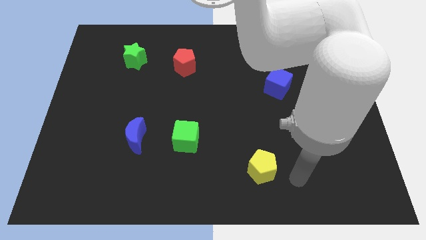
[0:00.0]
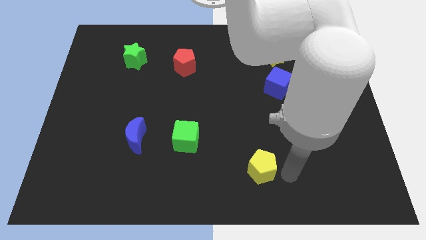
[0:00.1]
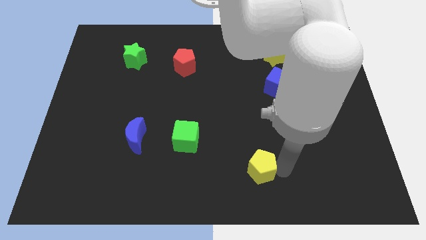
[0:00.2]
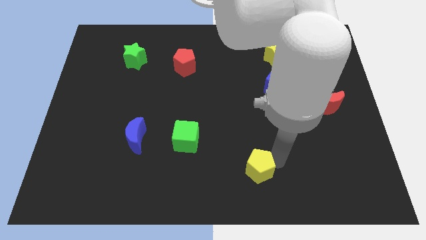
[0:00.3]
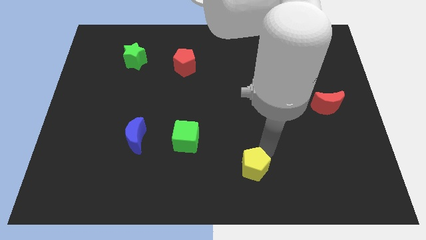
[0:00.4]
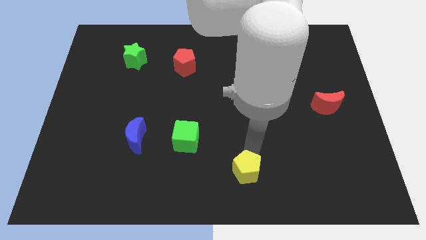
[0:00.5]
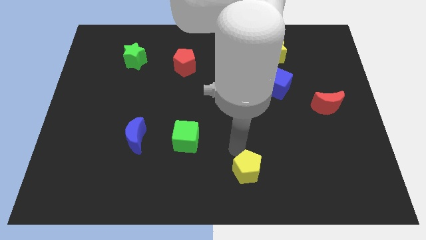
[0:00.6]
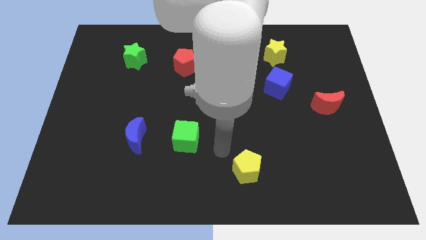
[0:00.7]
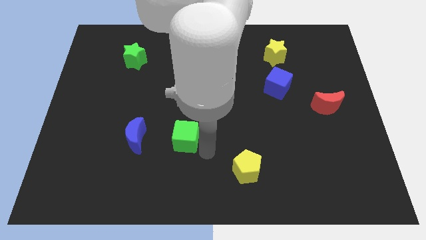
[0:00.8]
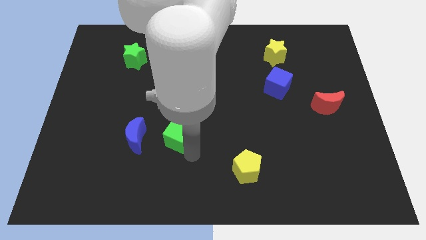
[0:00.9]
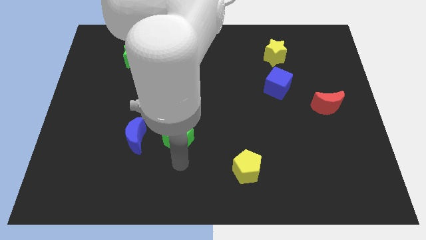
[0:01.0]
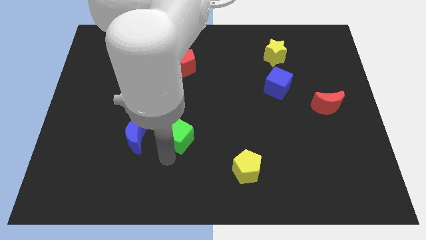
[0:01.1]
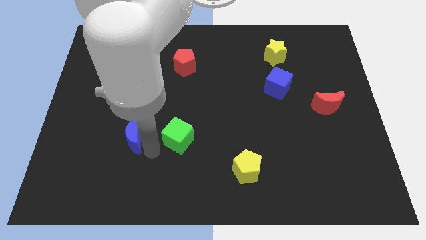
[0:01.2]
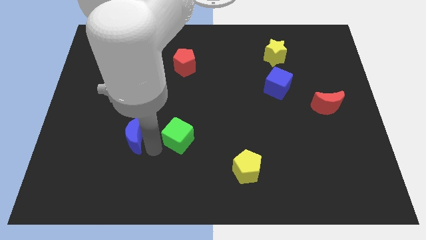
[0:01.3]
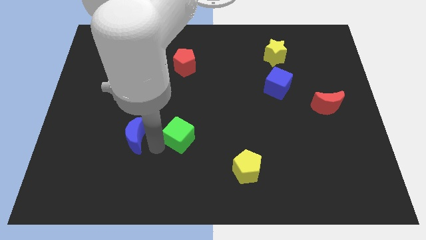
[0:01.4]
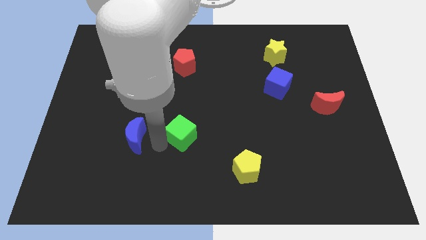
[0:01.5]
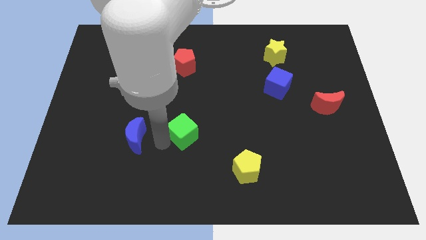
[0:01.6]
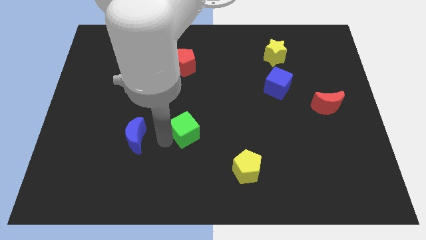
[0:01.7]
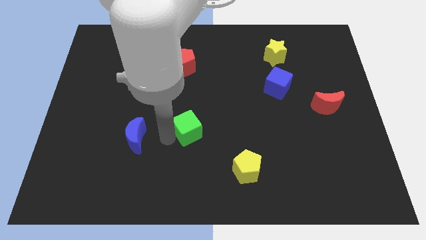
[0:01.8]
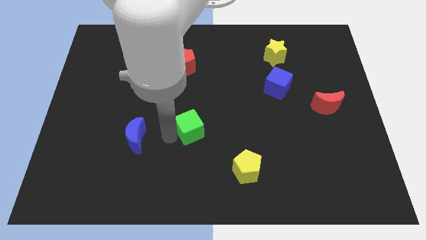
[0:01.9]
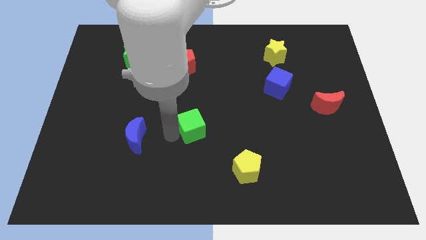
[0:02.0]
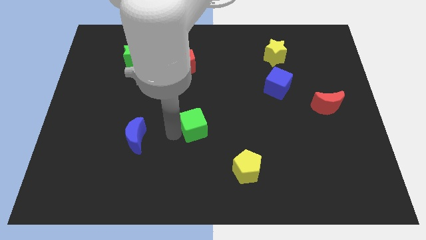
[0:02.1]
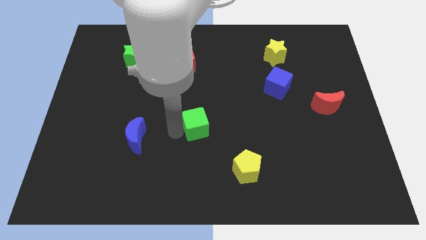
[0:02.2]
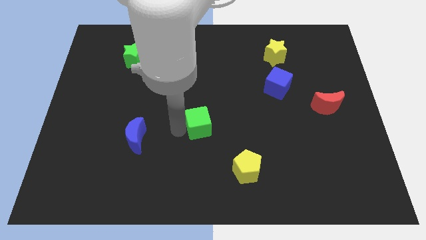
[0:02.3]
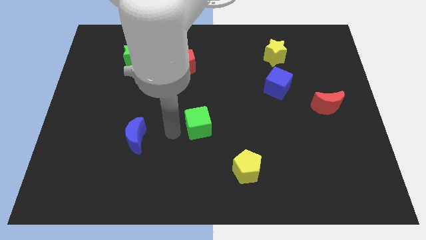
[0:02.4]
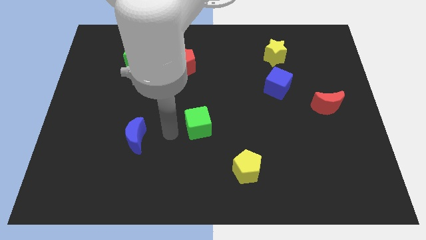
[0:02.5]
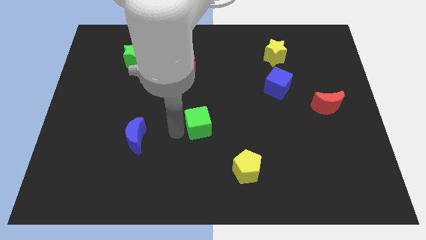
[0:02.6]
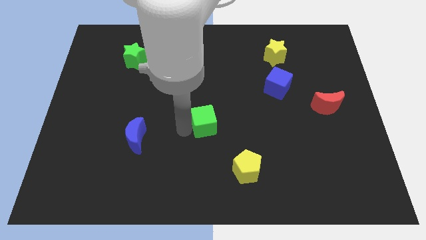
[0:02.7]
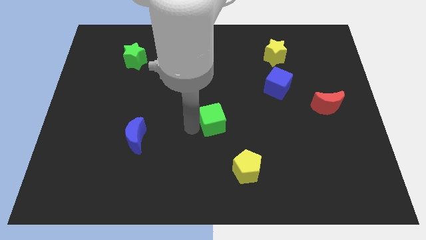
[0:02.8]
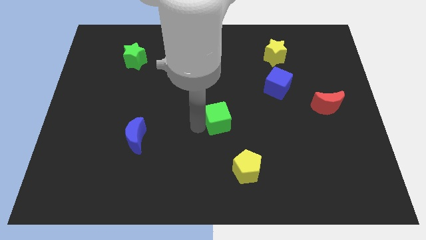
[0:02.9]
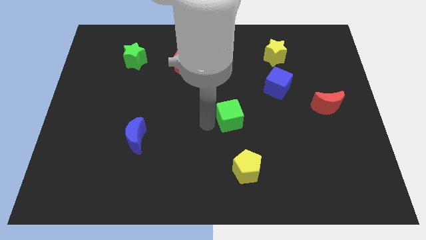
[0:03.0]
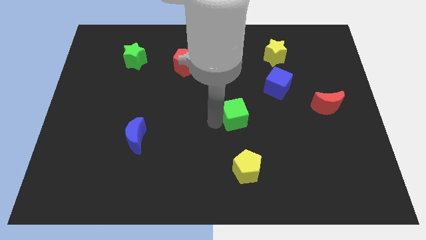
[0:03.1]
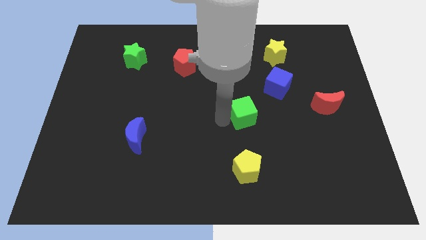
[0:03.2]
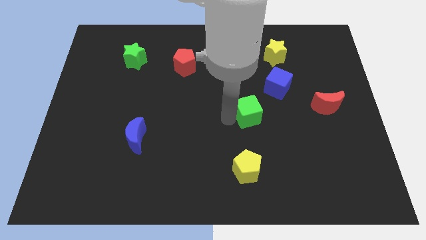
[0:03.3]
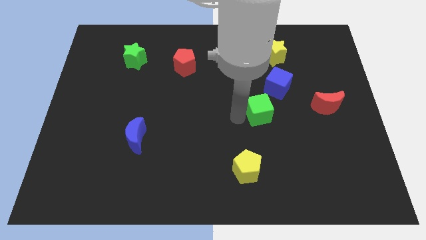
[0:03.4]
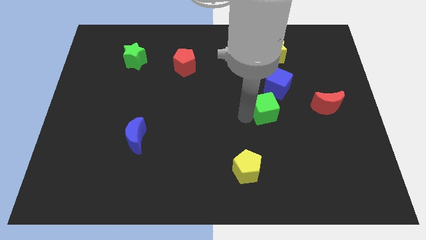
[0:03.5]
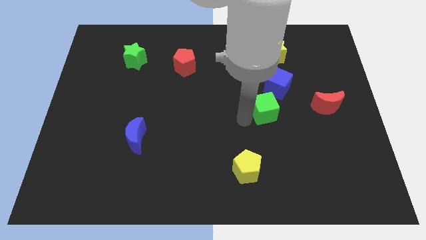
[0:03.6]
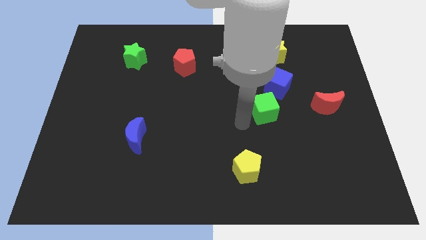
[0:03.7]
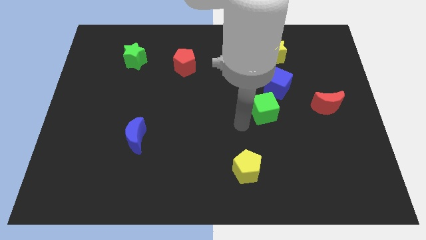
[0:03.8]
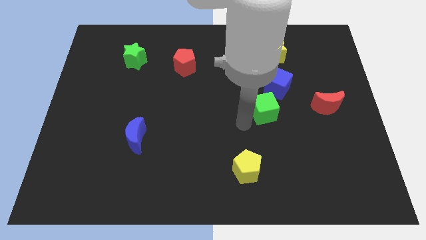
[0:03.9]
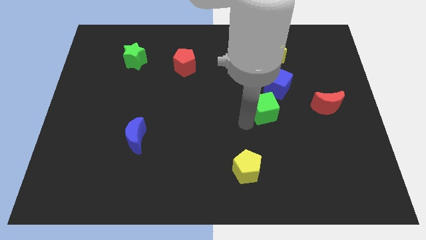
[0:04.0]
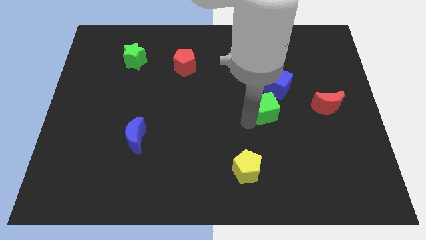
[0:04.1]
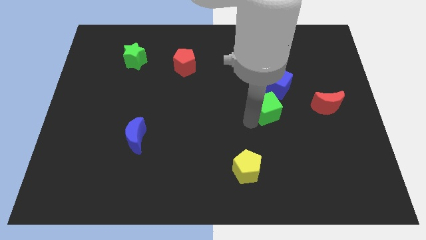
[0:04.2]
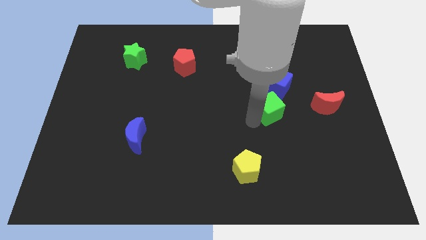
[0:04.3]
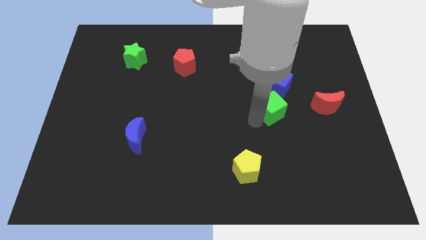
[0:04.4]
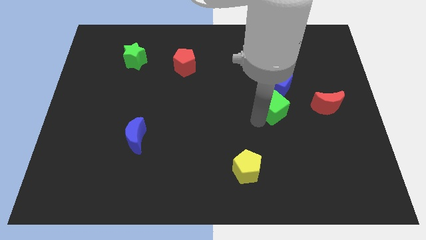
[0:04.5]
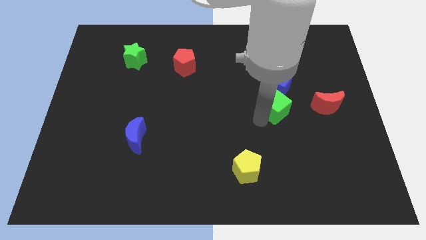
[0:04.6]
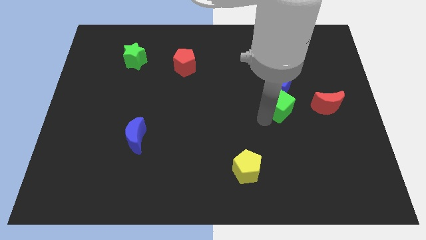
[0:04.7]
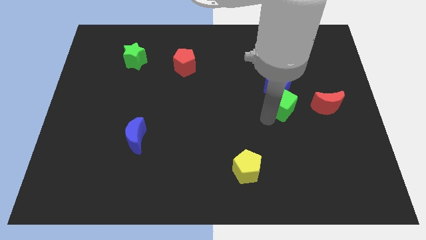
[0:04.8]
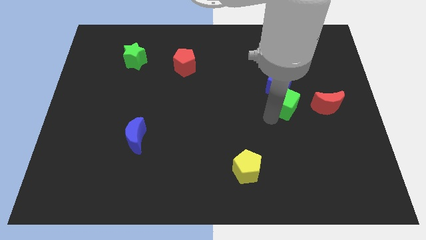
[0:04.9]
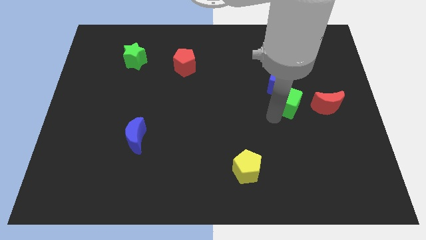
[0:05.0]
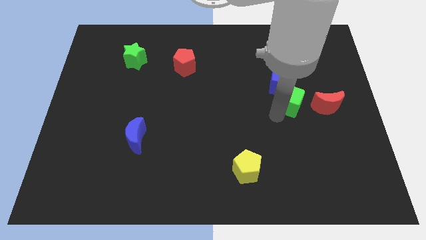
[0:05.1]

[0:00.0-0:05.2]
move the green cube below the yellow star

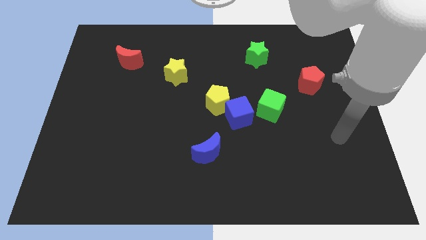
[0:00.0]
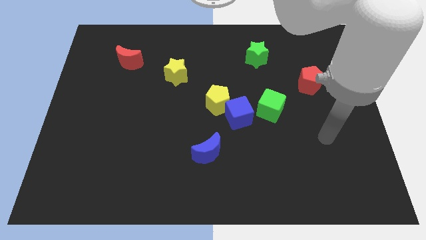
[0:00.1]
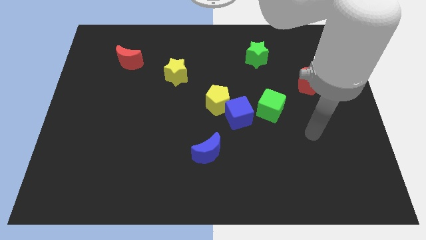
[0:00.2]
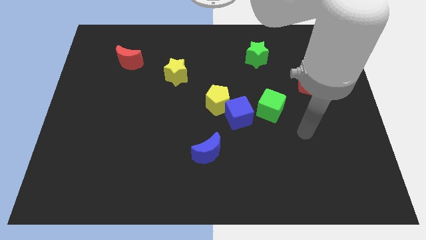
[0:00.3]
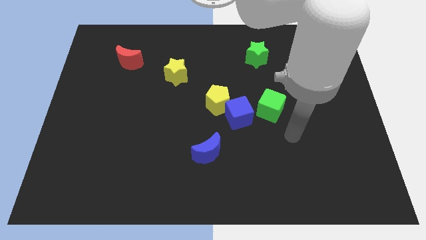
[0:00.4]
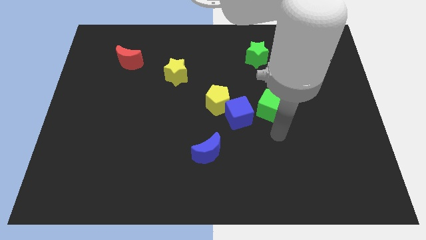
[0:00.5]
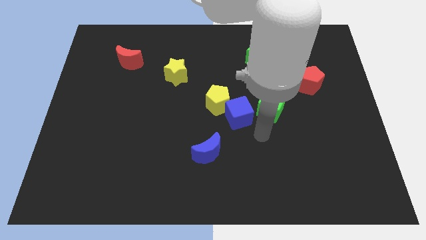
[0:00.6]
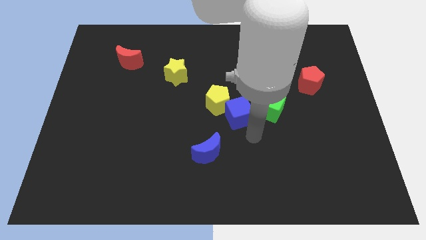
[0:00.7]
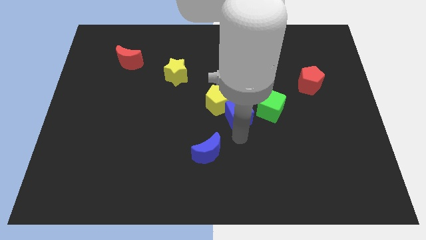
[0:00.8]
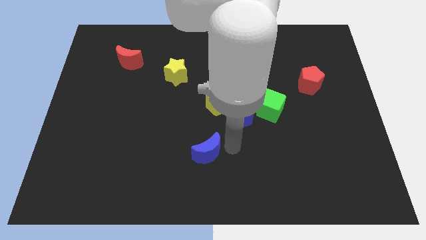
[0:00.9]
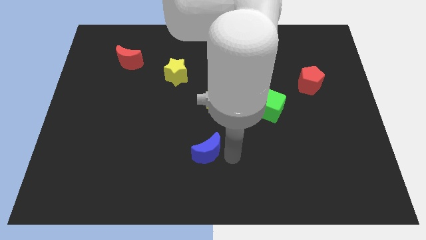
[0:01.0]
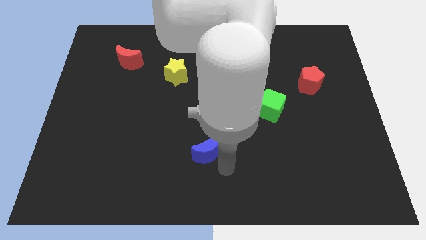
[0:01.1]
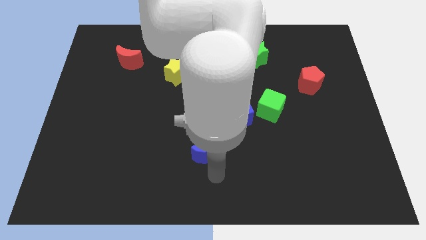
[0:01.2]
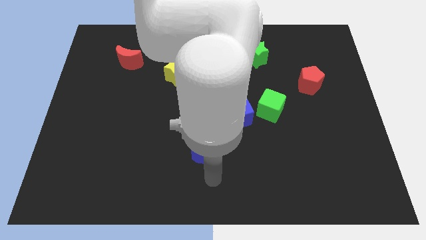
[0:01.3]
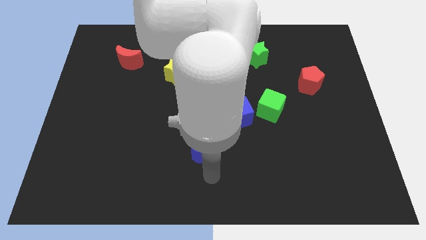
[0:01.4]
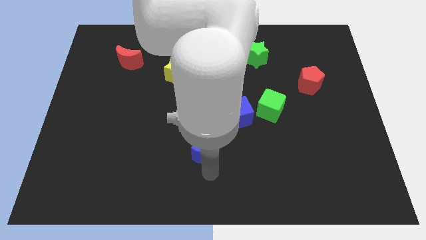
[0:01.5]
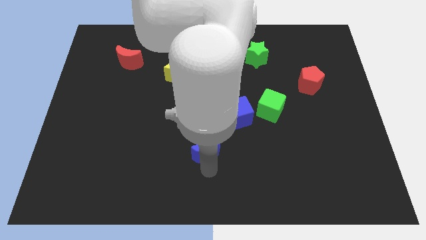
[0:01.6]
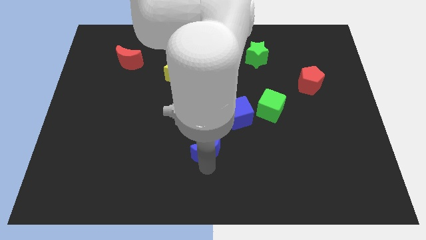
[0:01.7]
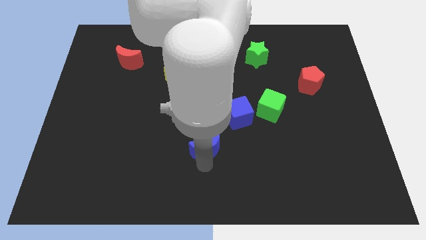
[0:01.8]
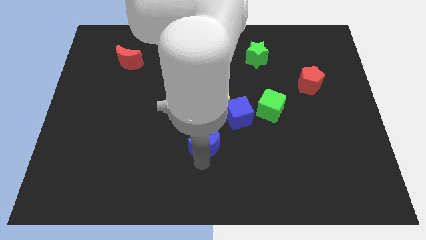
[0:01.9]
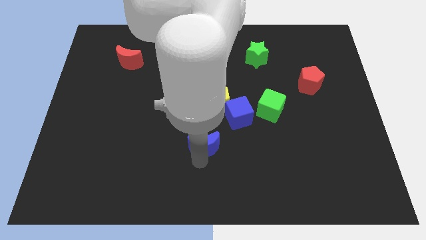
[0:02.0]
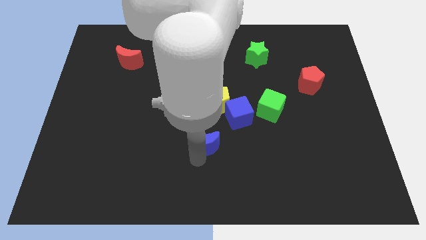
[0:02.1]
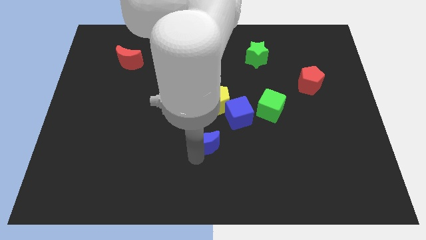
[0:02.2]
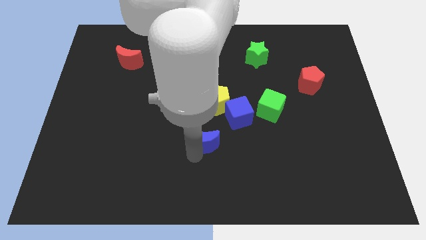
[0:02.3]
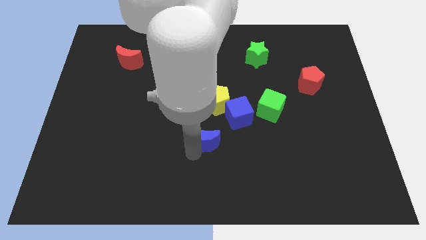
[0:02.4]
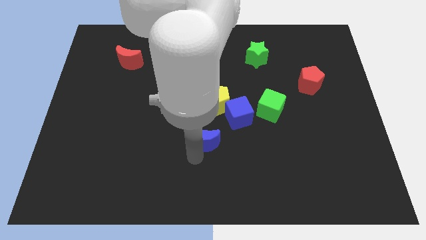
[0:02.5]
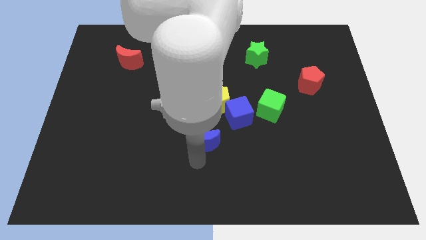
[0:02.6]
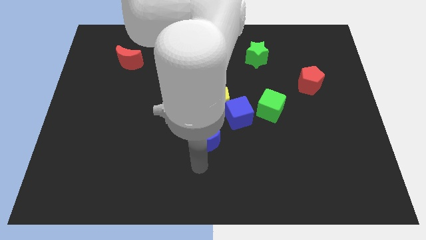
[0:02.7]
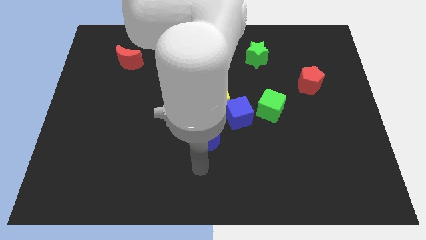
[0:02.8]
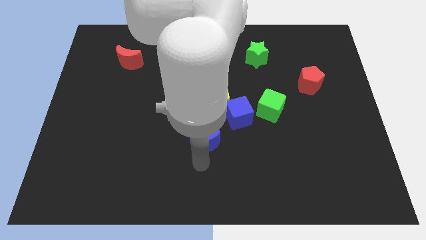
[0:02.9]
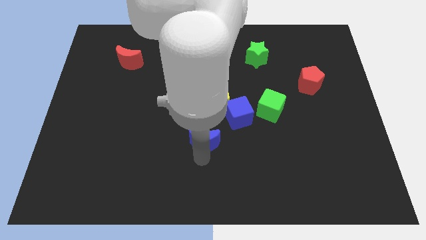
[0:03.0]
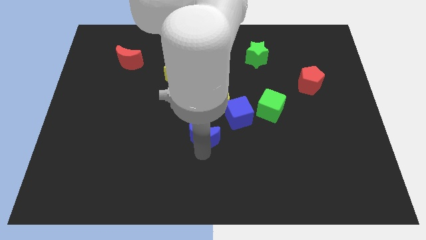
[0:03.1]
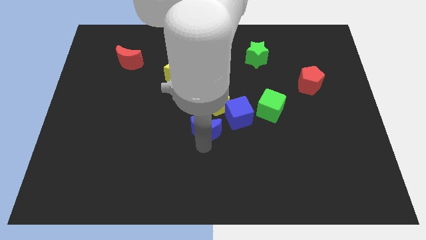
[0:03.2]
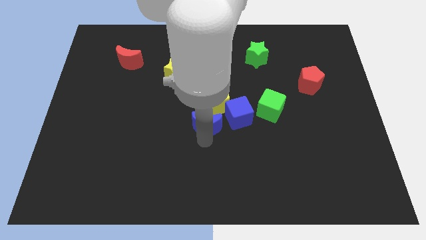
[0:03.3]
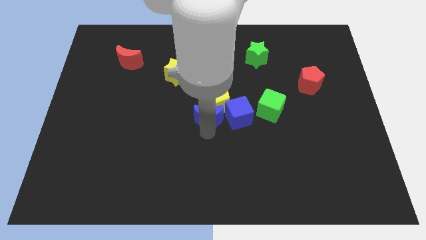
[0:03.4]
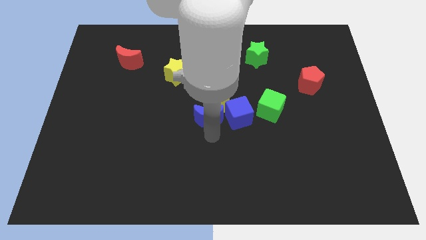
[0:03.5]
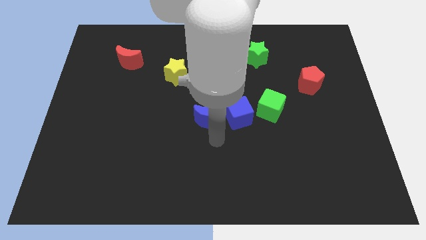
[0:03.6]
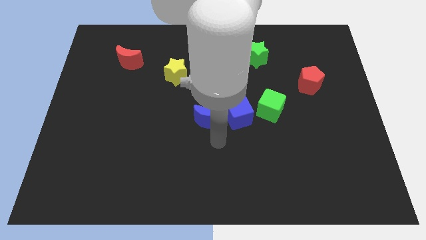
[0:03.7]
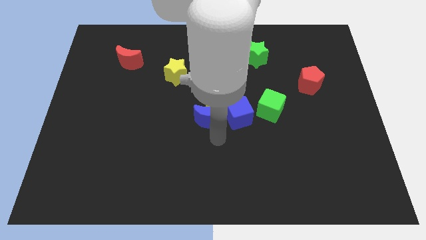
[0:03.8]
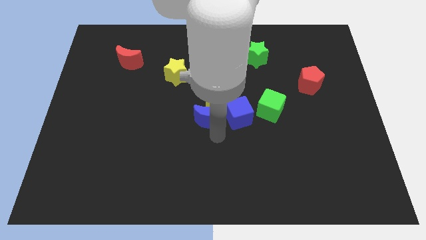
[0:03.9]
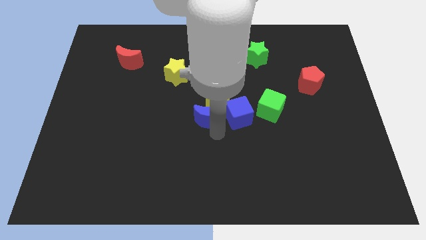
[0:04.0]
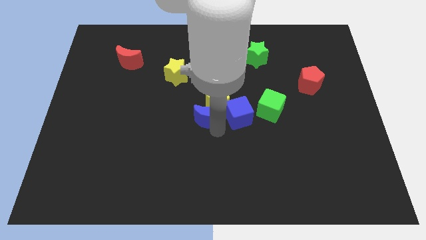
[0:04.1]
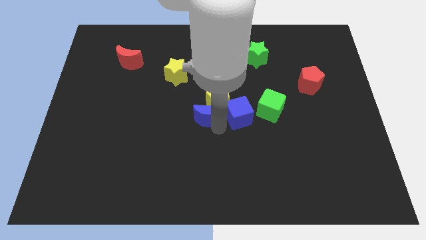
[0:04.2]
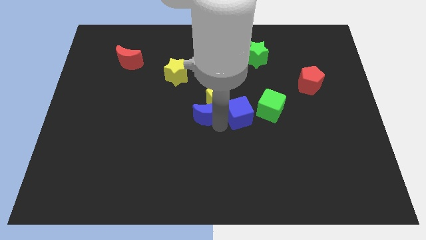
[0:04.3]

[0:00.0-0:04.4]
push the blue moon diagonally up and to the left of the blue cube
